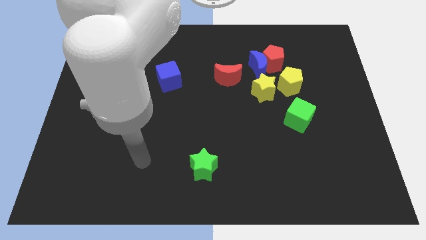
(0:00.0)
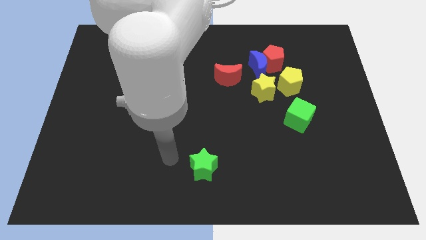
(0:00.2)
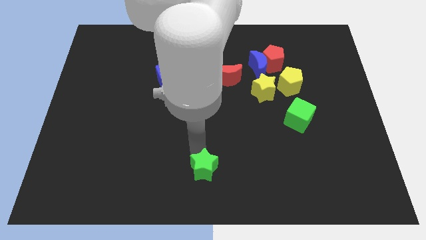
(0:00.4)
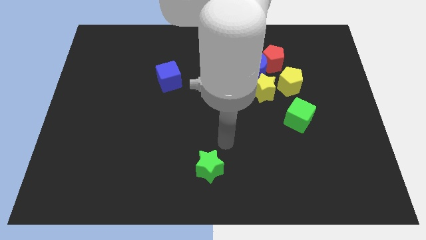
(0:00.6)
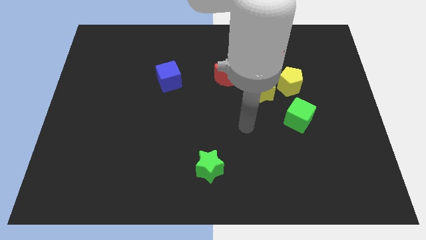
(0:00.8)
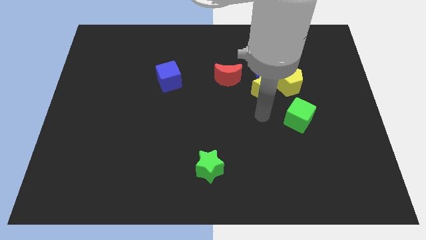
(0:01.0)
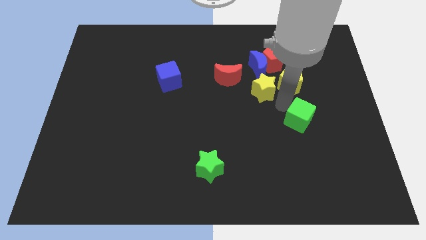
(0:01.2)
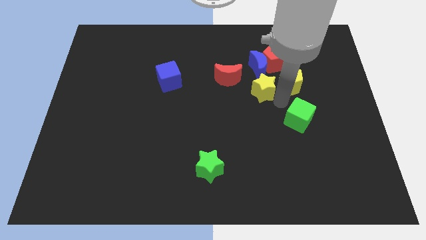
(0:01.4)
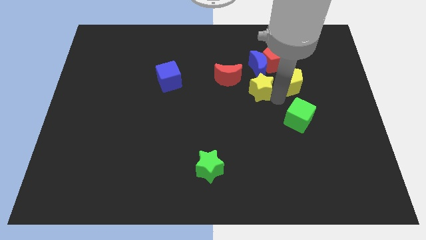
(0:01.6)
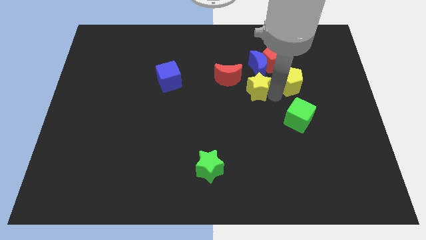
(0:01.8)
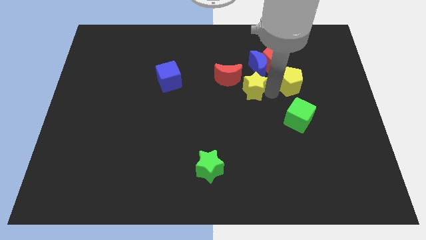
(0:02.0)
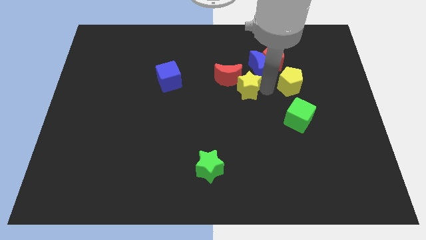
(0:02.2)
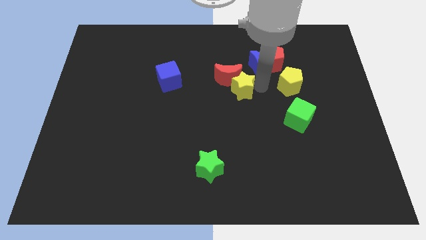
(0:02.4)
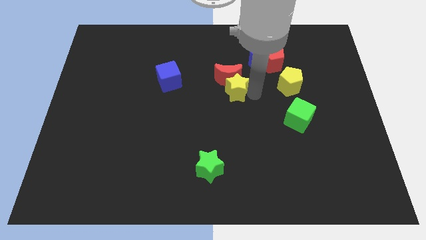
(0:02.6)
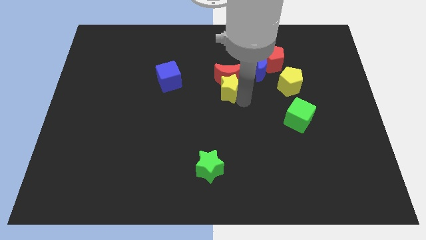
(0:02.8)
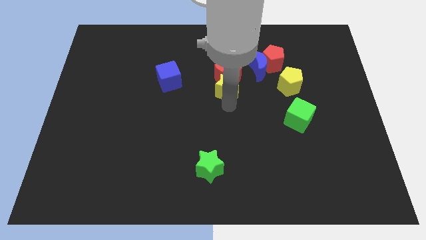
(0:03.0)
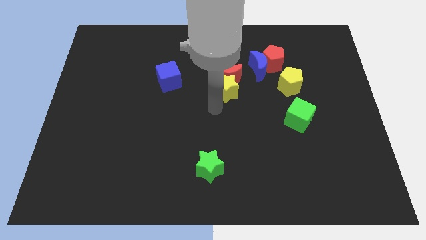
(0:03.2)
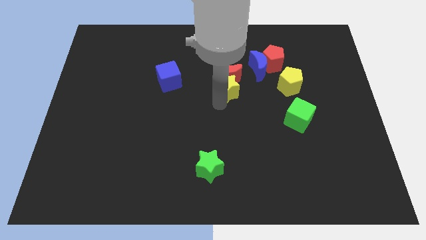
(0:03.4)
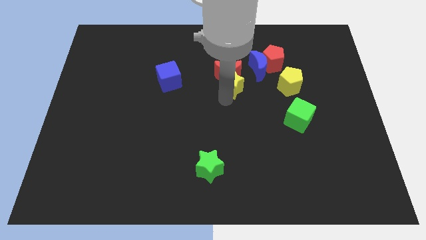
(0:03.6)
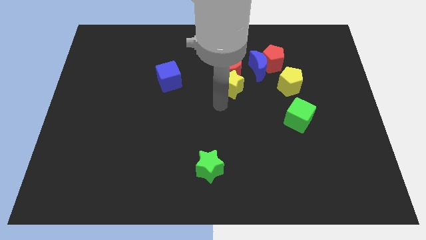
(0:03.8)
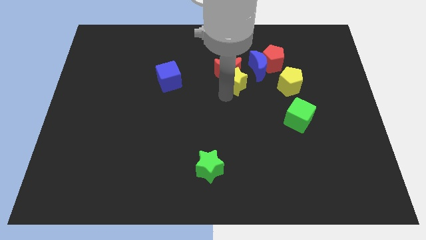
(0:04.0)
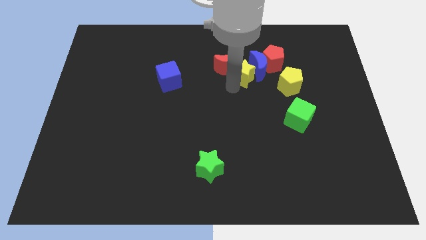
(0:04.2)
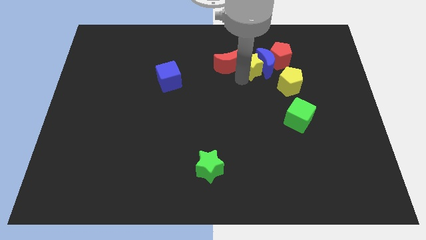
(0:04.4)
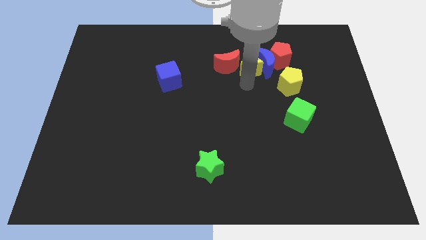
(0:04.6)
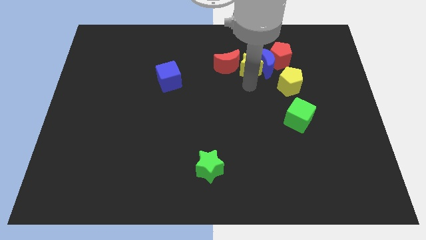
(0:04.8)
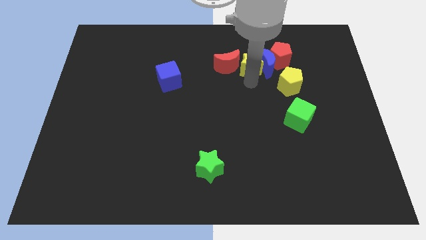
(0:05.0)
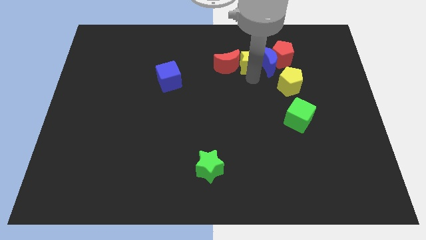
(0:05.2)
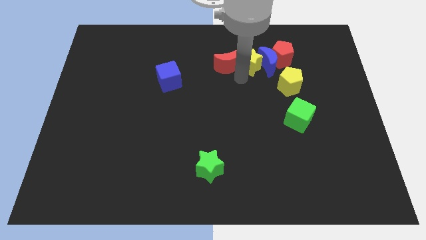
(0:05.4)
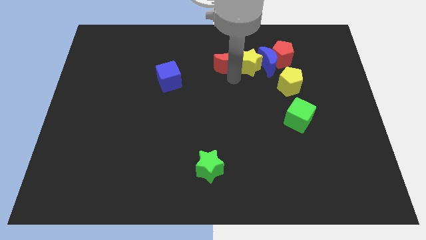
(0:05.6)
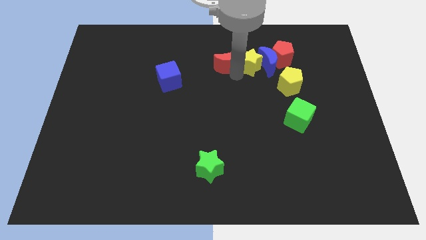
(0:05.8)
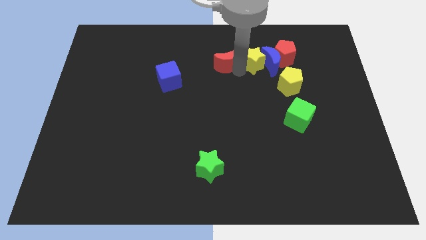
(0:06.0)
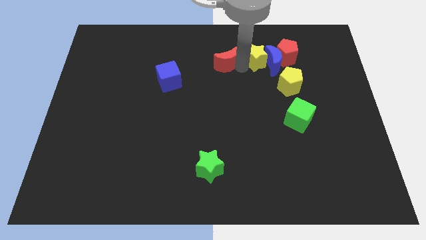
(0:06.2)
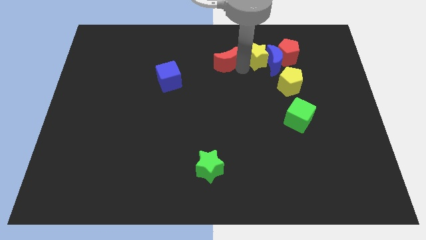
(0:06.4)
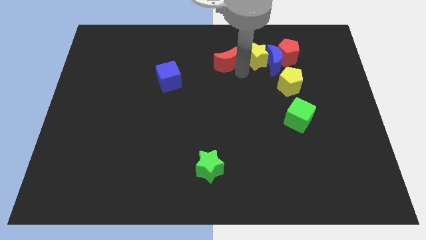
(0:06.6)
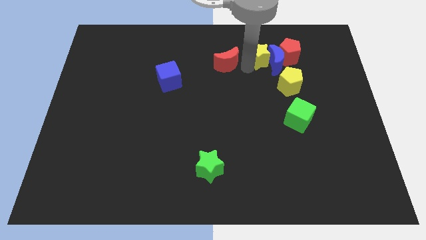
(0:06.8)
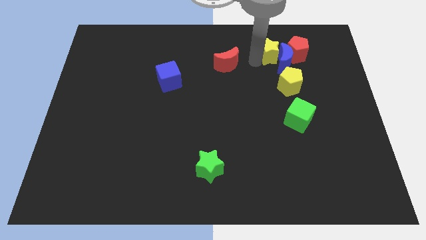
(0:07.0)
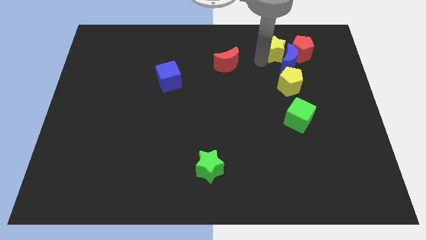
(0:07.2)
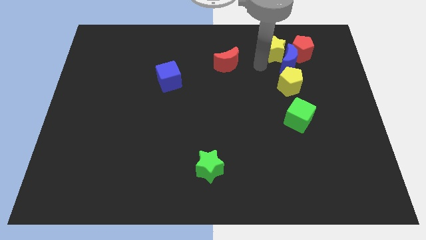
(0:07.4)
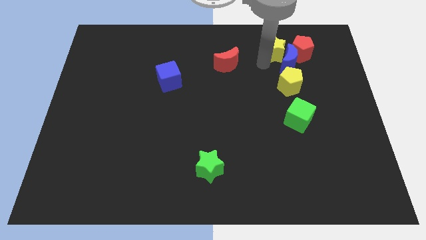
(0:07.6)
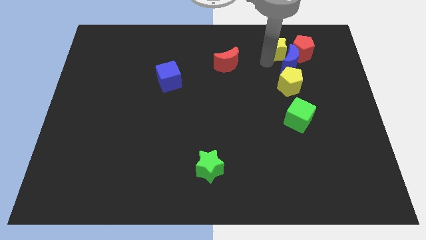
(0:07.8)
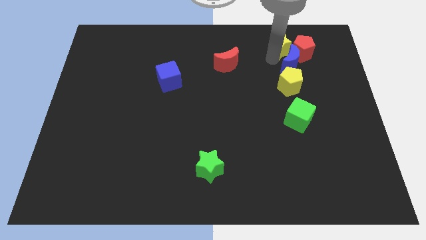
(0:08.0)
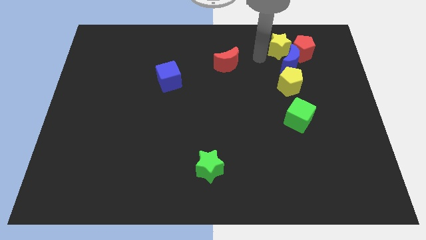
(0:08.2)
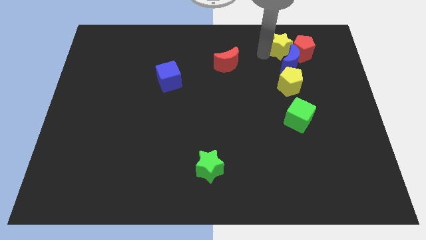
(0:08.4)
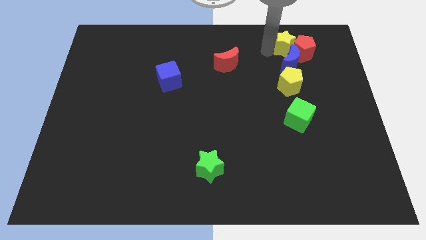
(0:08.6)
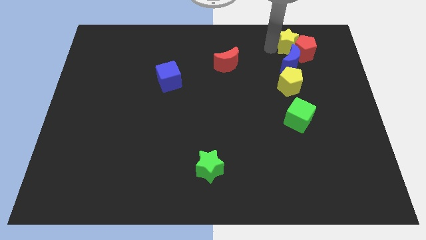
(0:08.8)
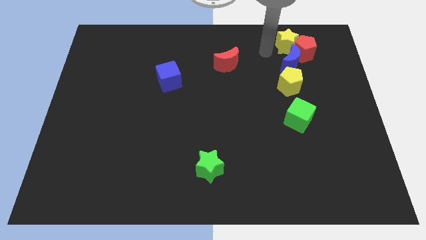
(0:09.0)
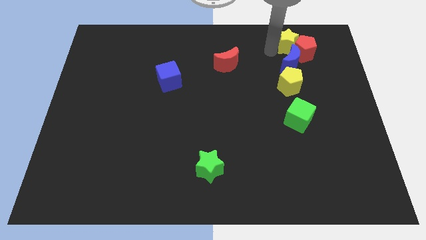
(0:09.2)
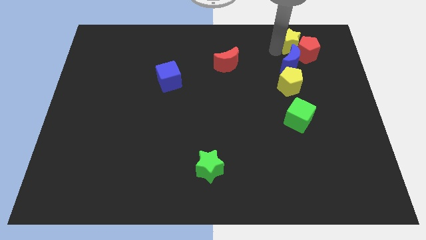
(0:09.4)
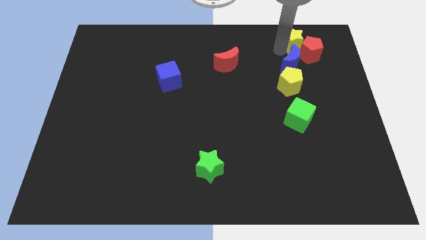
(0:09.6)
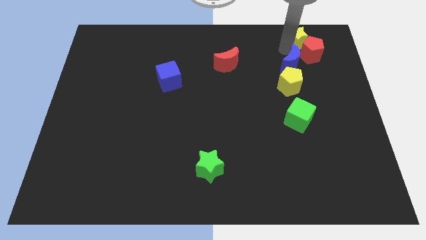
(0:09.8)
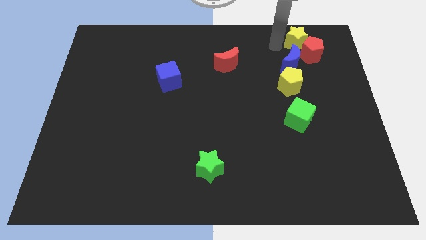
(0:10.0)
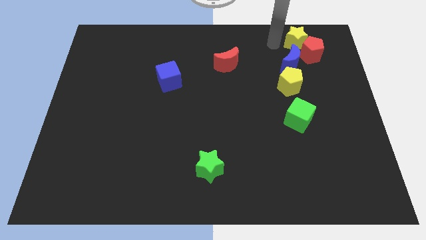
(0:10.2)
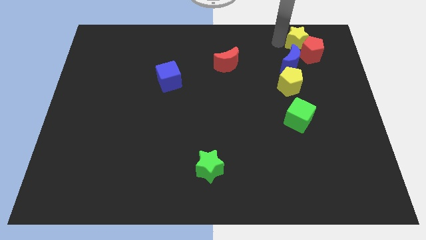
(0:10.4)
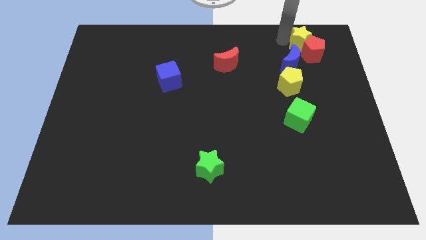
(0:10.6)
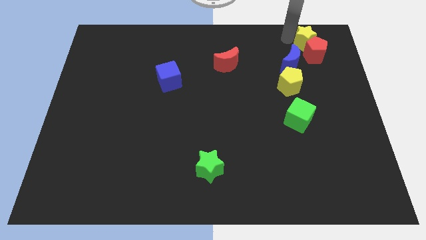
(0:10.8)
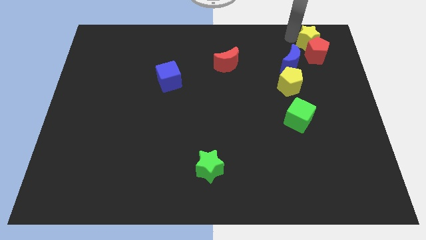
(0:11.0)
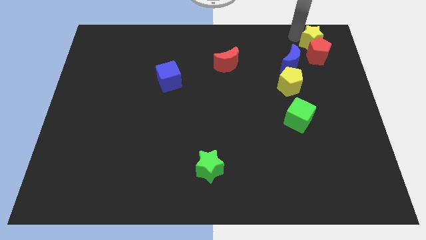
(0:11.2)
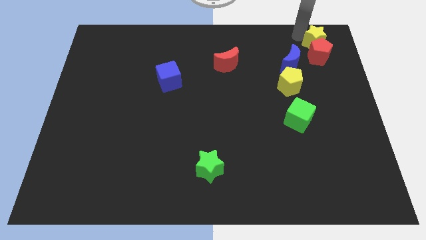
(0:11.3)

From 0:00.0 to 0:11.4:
slide the yellow star to the top right

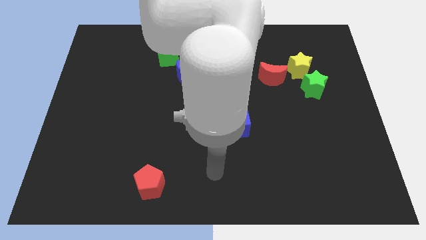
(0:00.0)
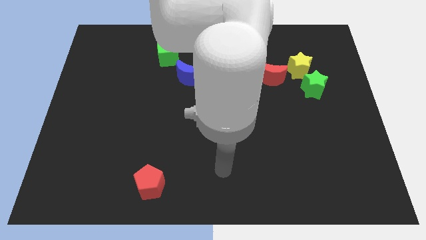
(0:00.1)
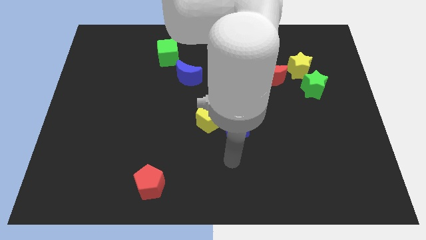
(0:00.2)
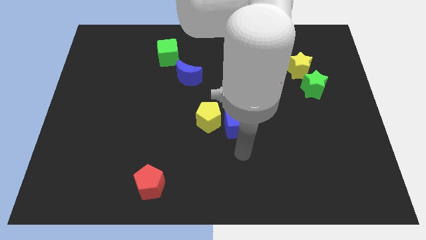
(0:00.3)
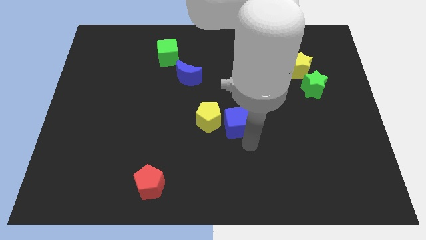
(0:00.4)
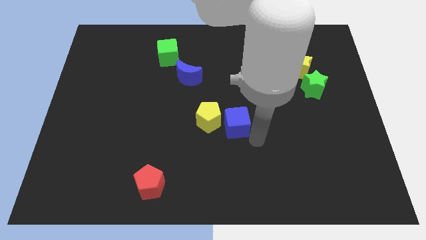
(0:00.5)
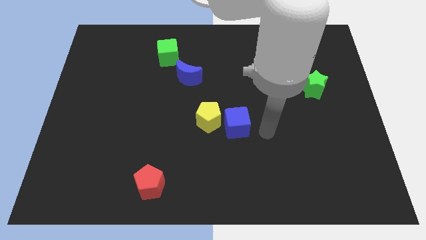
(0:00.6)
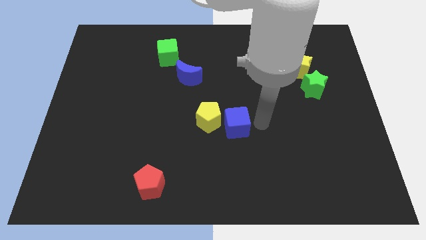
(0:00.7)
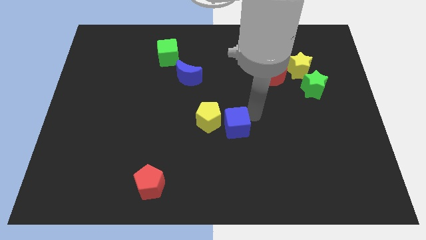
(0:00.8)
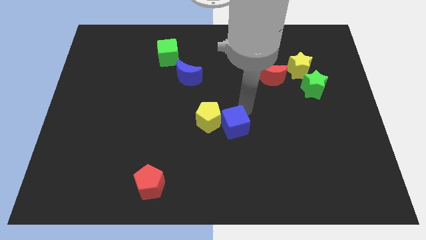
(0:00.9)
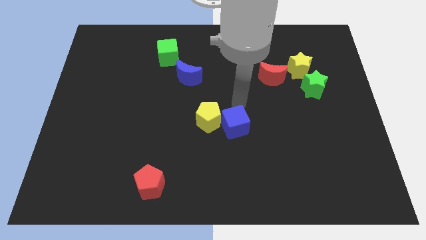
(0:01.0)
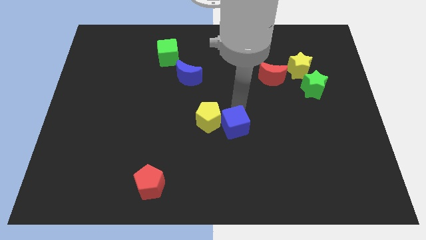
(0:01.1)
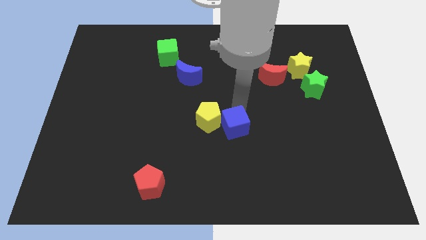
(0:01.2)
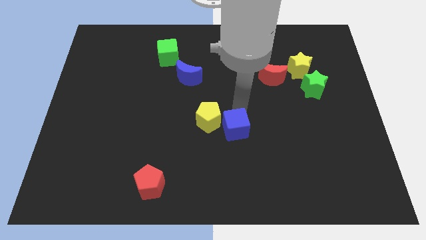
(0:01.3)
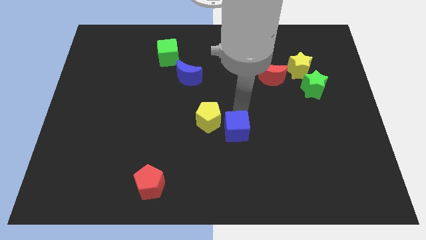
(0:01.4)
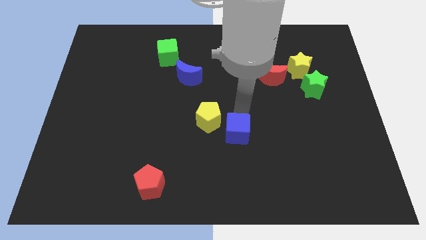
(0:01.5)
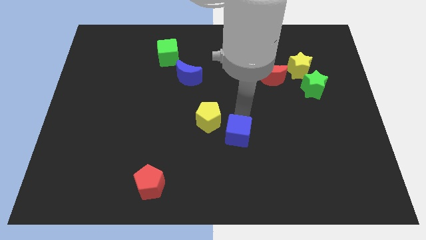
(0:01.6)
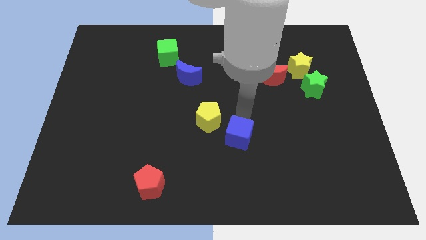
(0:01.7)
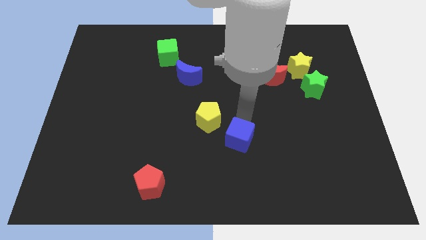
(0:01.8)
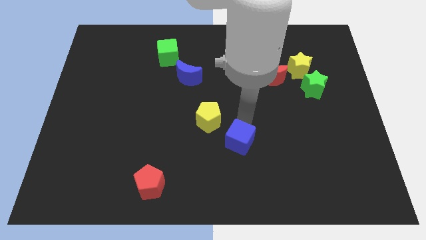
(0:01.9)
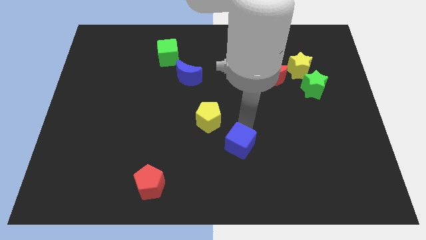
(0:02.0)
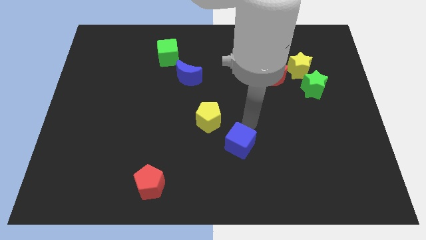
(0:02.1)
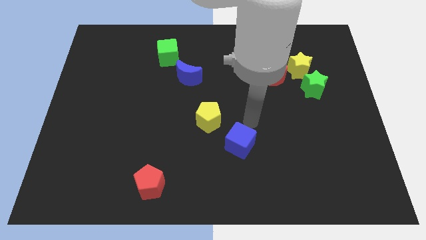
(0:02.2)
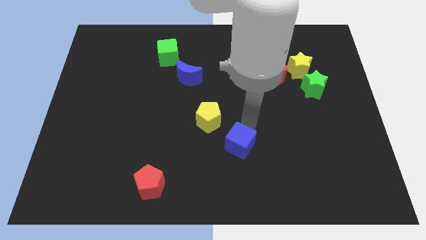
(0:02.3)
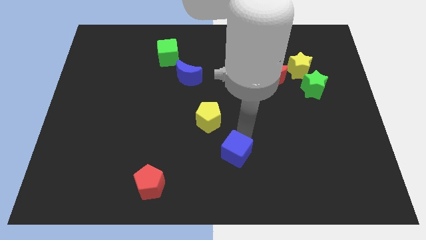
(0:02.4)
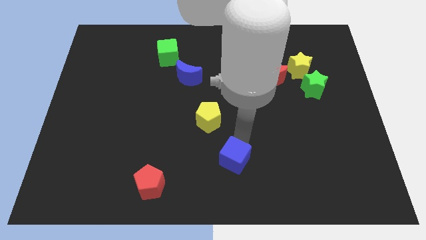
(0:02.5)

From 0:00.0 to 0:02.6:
slide the blue cube to the bottom side
